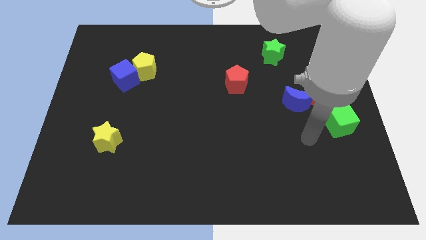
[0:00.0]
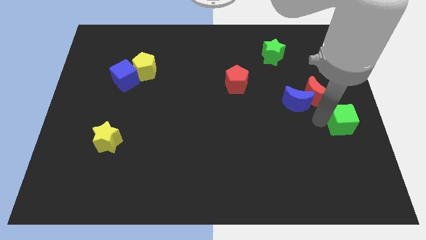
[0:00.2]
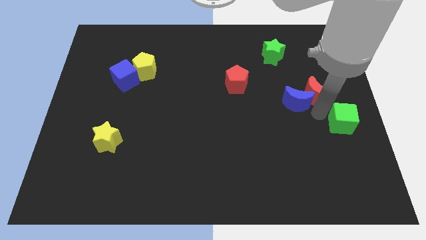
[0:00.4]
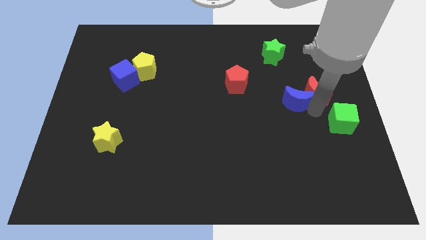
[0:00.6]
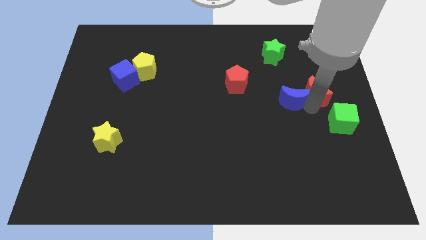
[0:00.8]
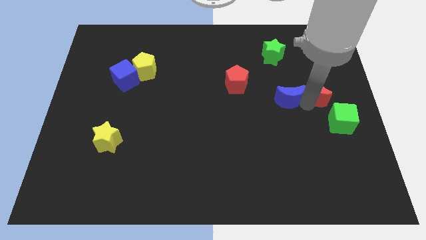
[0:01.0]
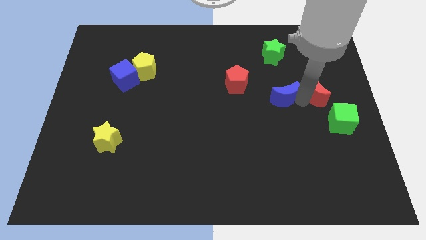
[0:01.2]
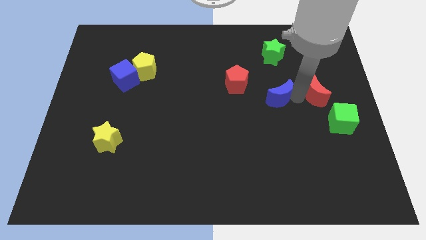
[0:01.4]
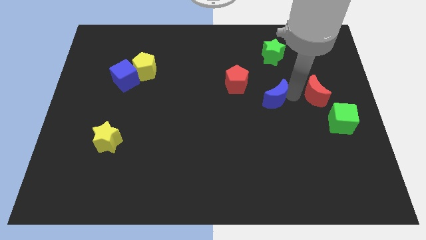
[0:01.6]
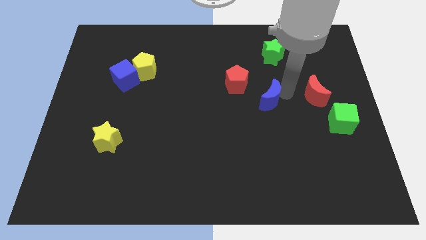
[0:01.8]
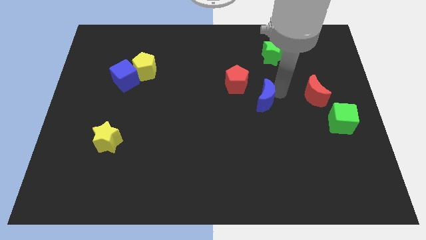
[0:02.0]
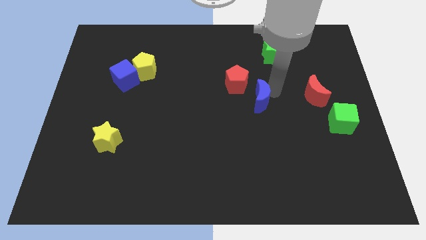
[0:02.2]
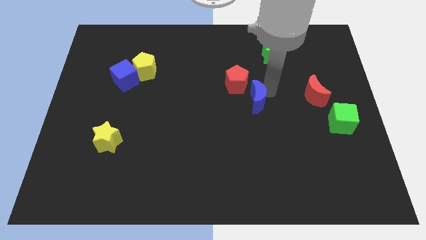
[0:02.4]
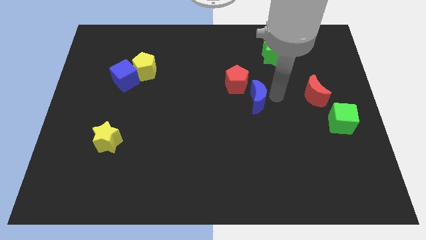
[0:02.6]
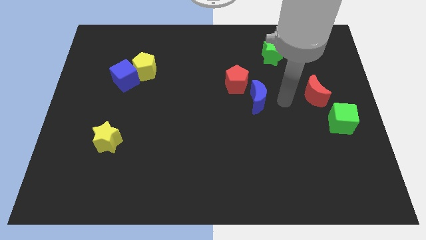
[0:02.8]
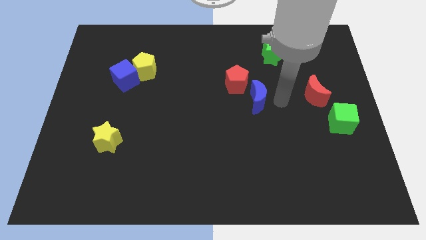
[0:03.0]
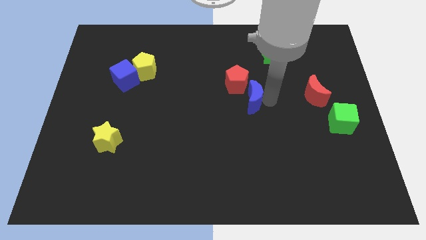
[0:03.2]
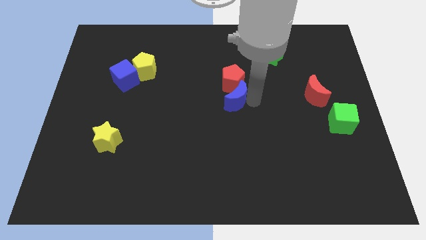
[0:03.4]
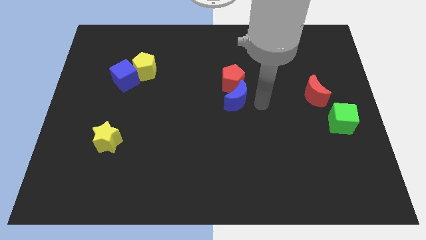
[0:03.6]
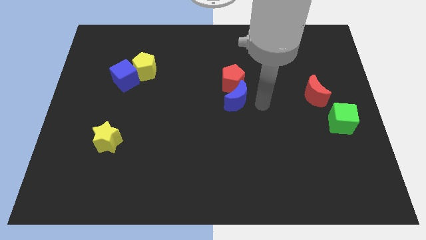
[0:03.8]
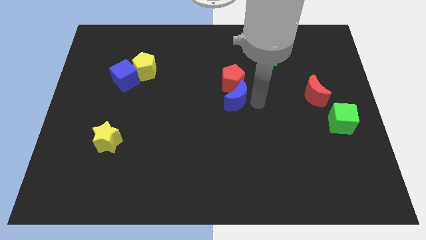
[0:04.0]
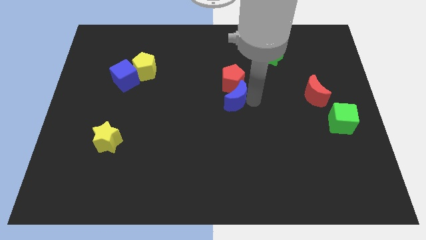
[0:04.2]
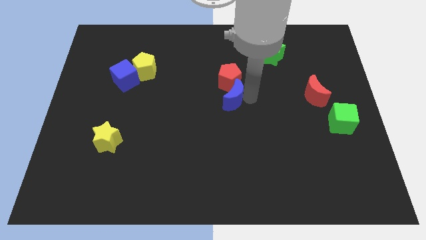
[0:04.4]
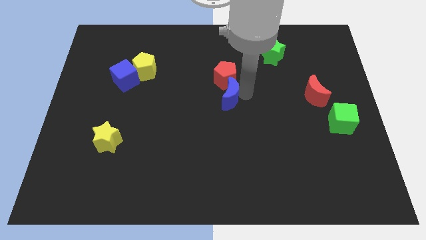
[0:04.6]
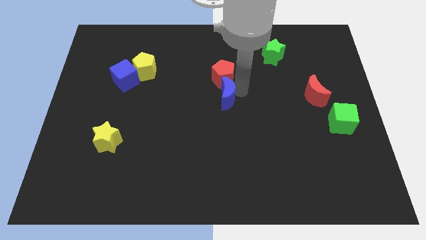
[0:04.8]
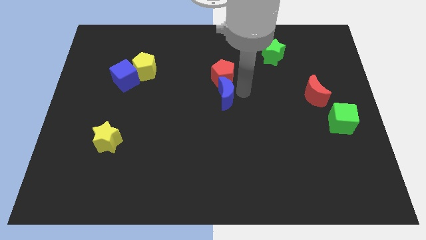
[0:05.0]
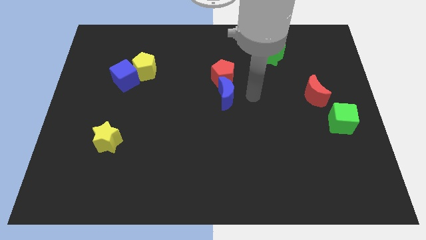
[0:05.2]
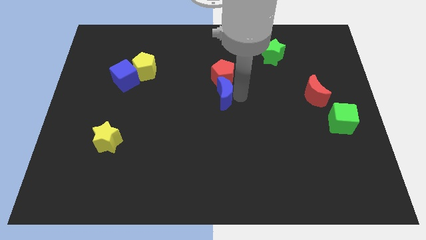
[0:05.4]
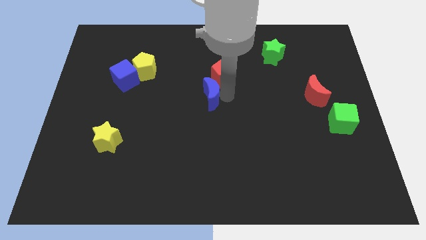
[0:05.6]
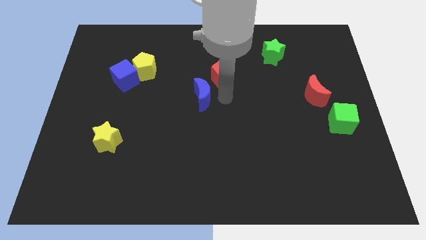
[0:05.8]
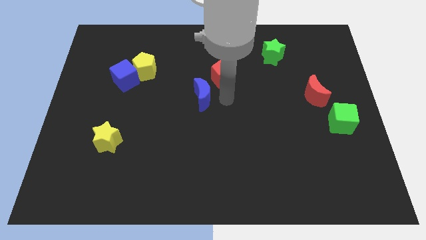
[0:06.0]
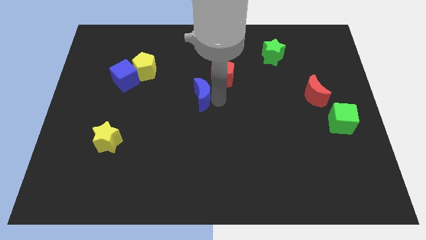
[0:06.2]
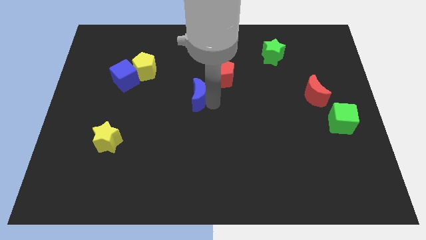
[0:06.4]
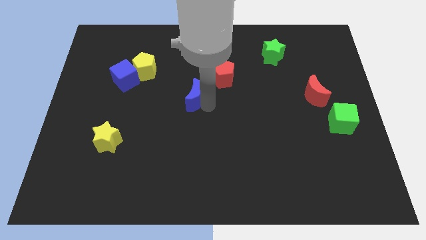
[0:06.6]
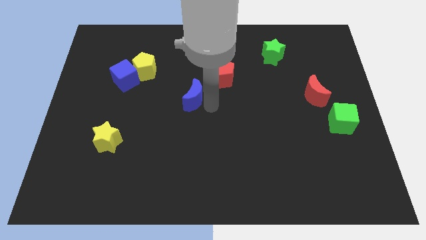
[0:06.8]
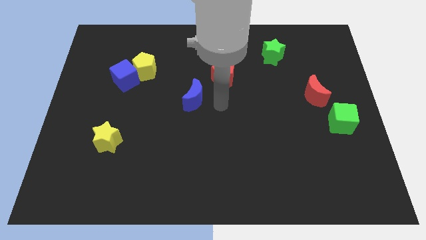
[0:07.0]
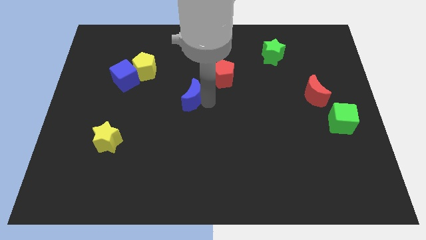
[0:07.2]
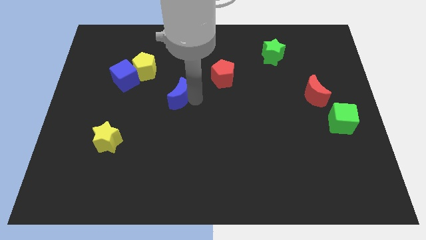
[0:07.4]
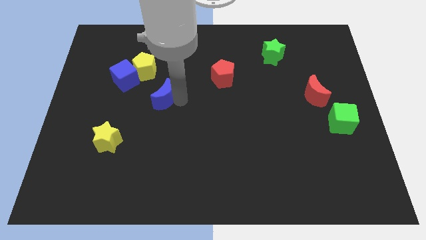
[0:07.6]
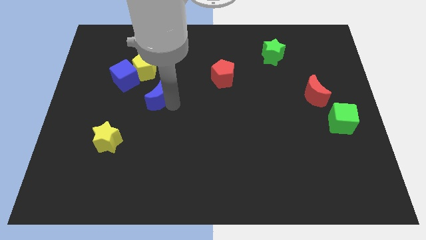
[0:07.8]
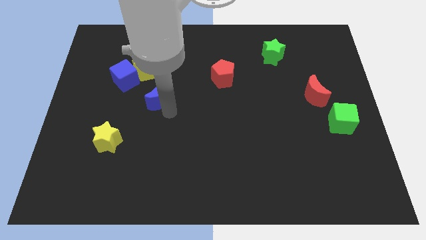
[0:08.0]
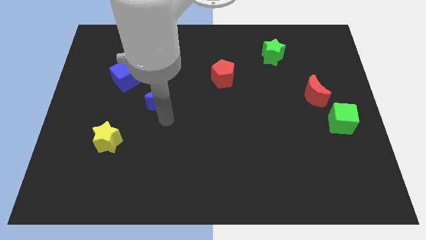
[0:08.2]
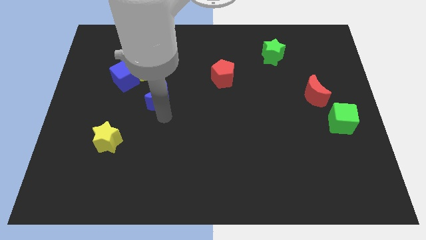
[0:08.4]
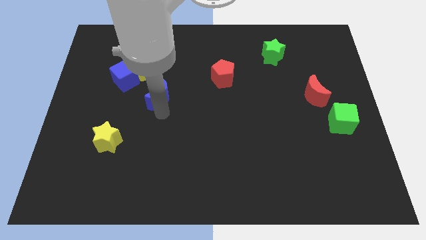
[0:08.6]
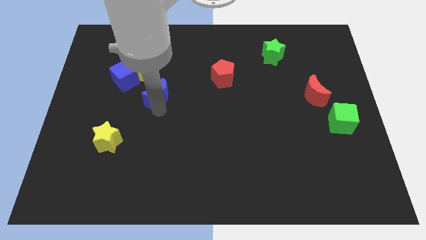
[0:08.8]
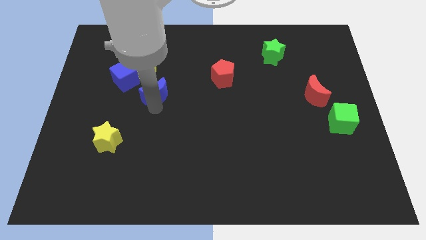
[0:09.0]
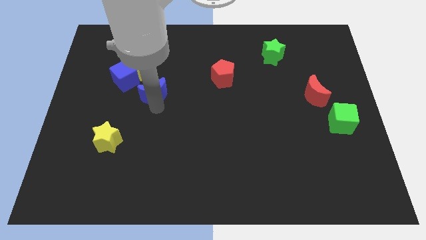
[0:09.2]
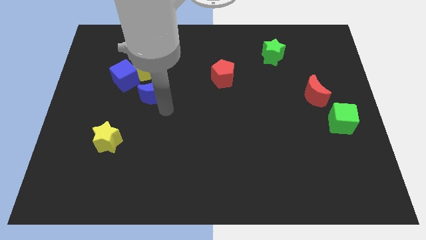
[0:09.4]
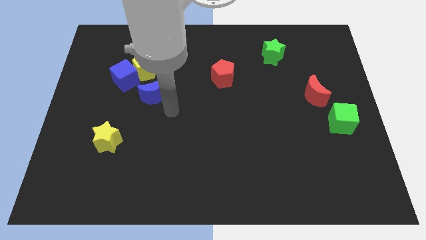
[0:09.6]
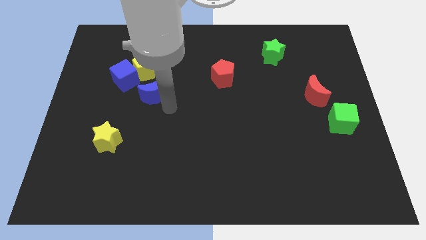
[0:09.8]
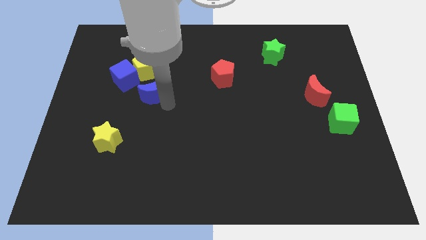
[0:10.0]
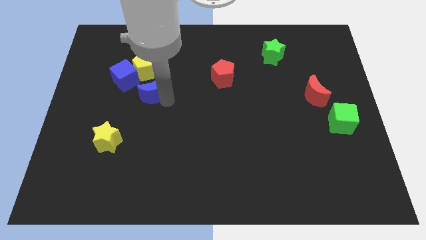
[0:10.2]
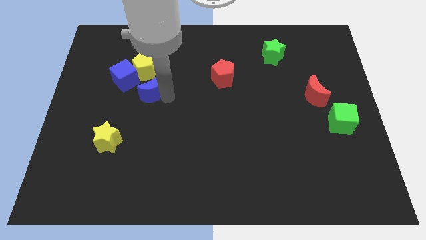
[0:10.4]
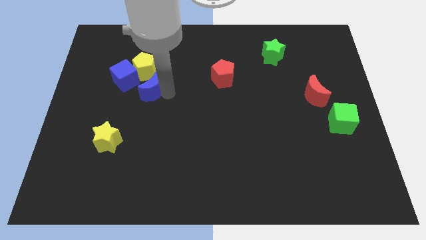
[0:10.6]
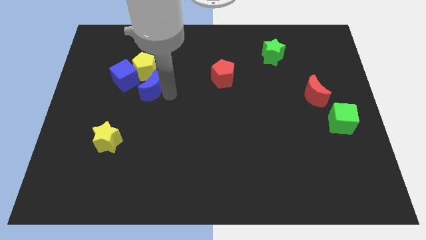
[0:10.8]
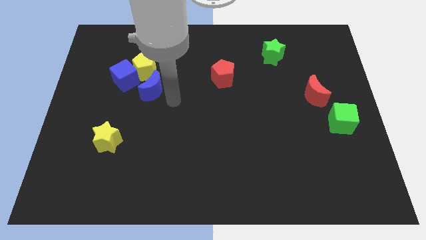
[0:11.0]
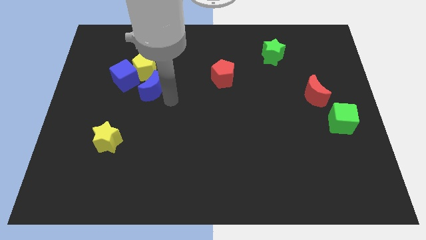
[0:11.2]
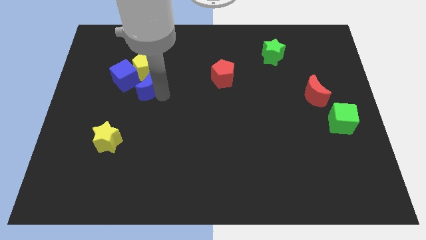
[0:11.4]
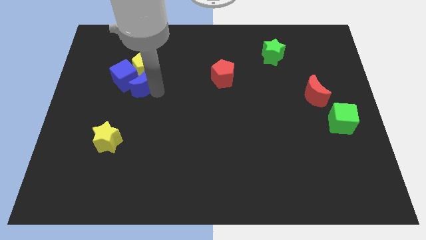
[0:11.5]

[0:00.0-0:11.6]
push the blue moon next to the blue cube

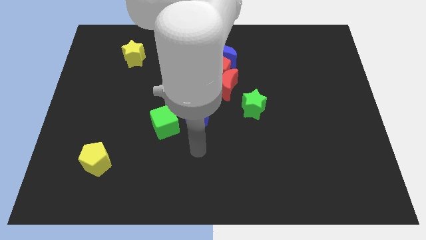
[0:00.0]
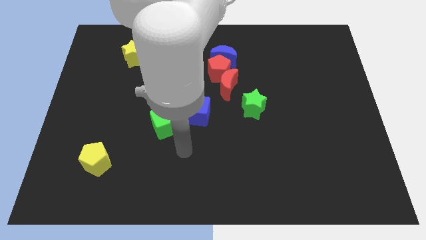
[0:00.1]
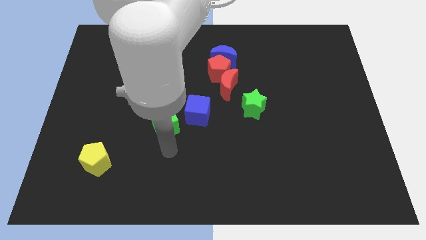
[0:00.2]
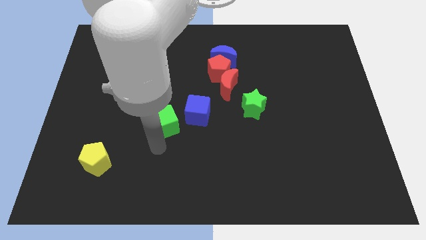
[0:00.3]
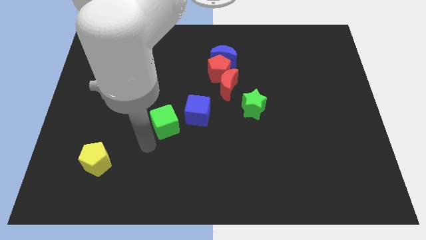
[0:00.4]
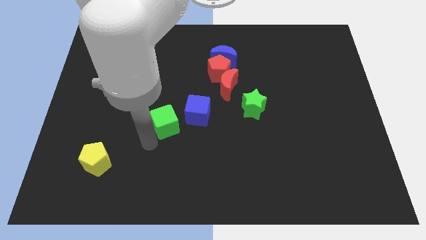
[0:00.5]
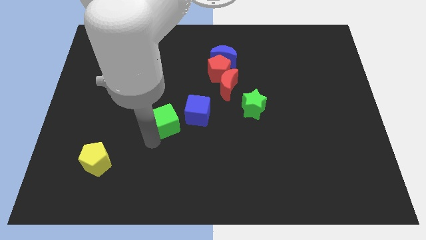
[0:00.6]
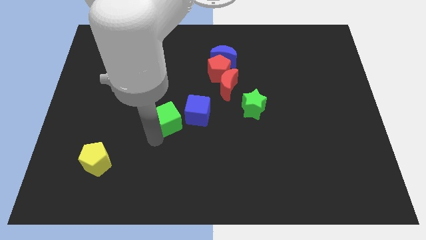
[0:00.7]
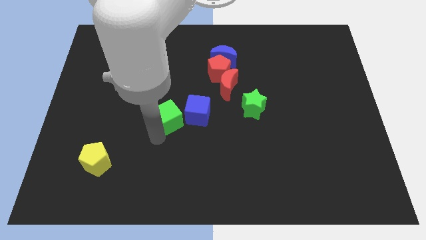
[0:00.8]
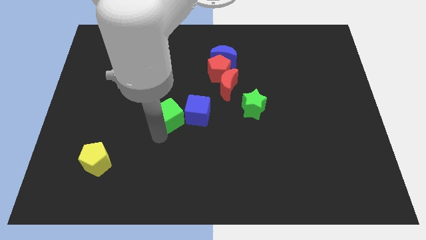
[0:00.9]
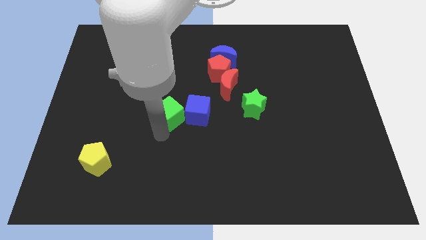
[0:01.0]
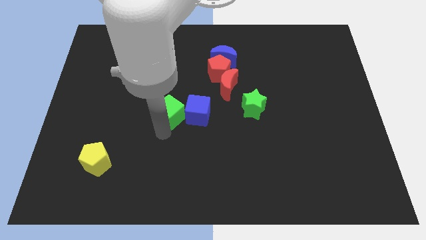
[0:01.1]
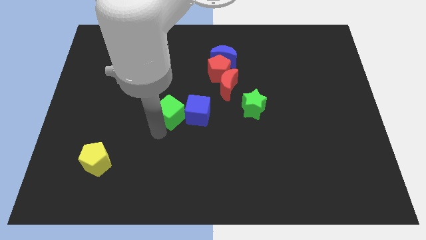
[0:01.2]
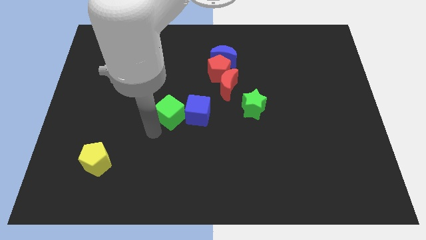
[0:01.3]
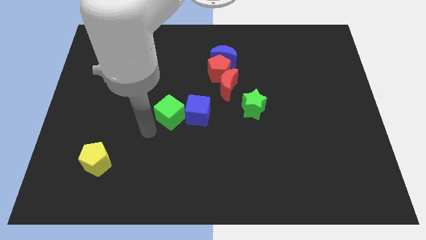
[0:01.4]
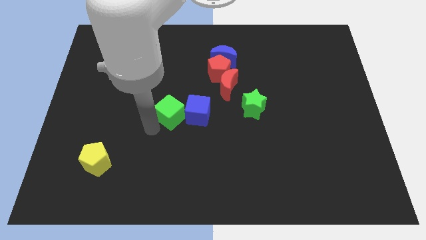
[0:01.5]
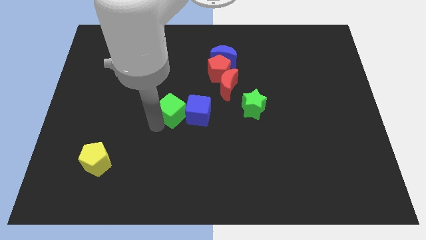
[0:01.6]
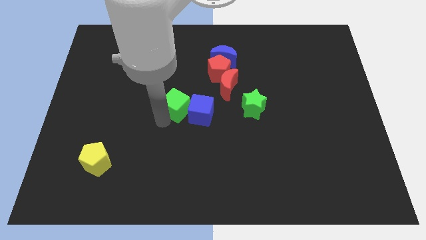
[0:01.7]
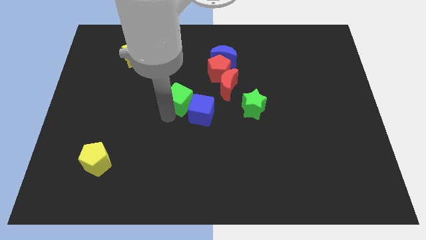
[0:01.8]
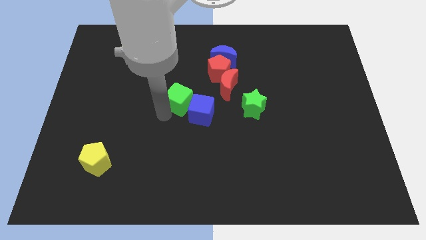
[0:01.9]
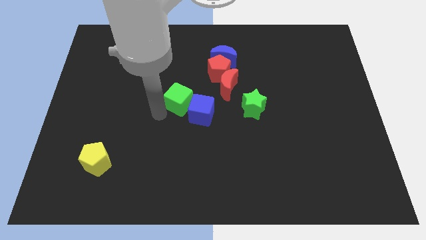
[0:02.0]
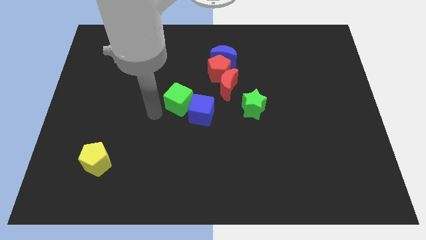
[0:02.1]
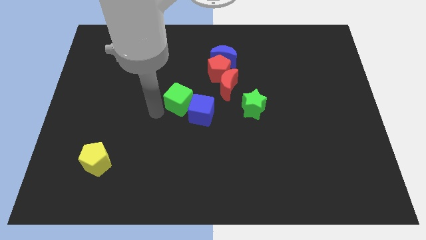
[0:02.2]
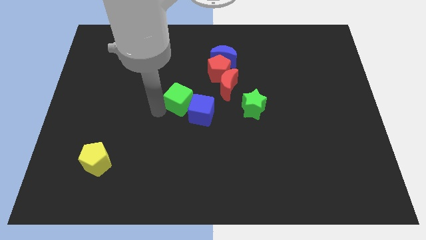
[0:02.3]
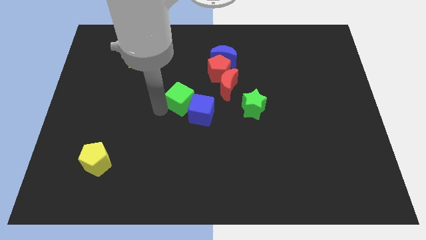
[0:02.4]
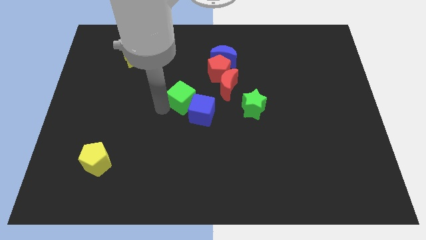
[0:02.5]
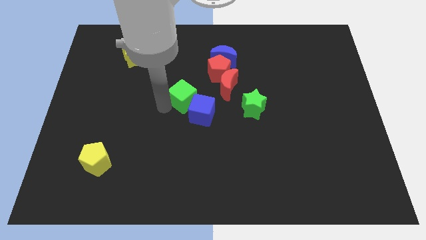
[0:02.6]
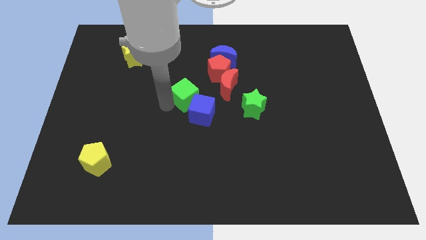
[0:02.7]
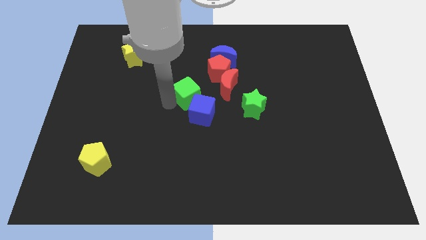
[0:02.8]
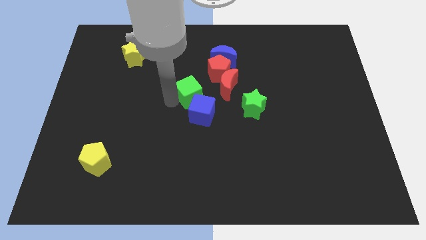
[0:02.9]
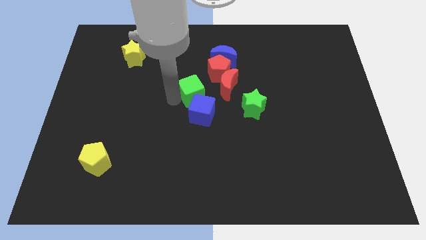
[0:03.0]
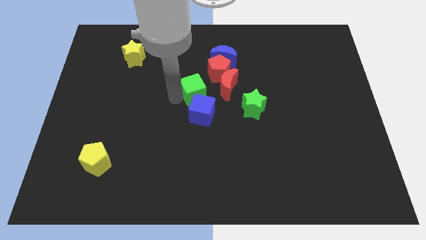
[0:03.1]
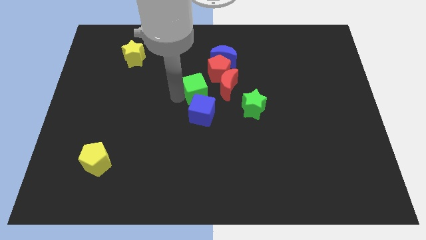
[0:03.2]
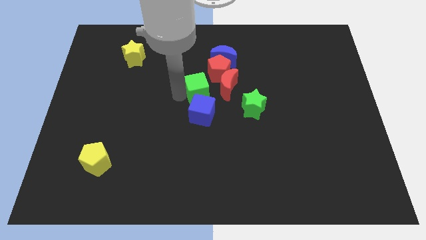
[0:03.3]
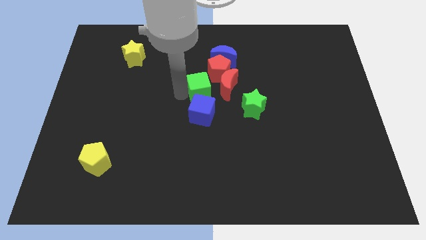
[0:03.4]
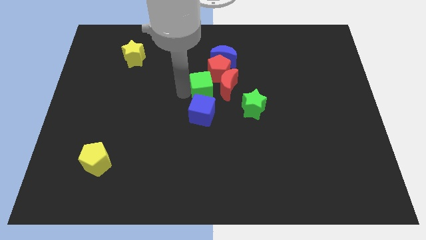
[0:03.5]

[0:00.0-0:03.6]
slide the green cube towards the red moon
